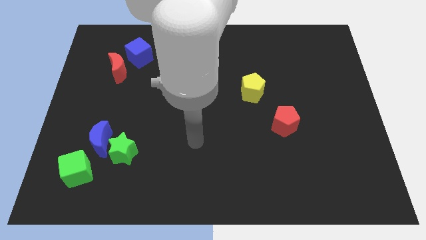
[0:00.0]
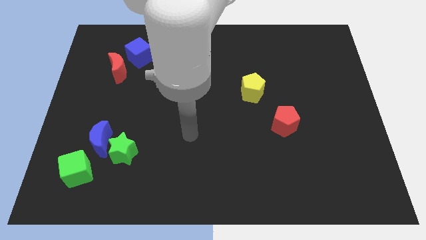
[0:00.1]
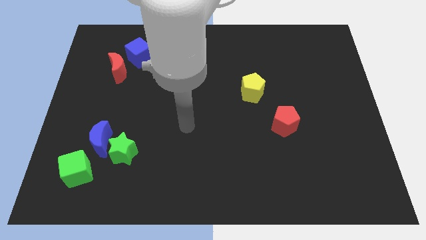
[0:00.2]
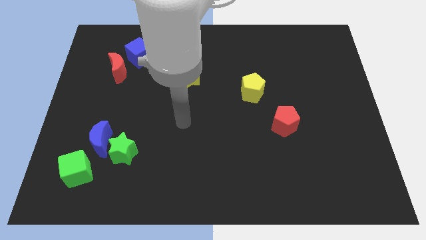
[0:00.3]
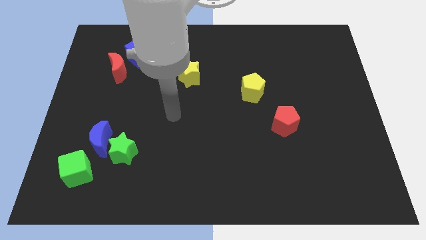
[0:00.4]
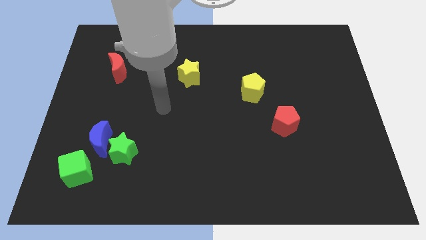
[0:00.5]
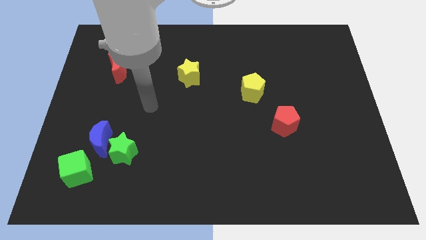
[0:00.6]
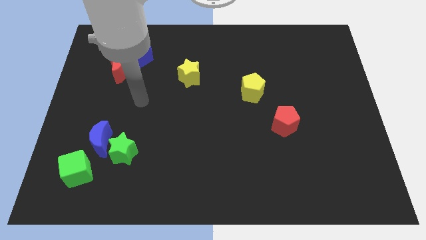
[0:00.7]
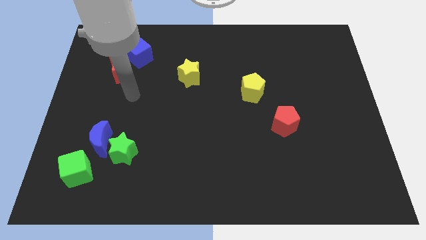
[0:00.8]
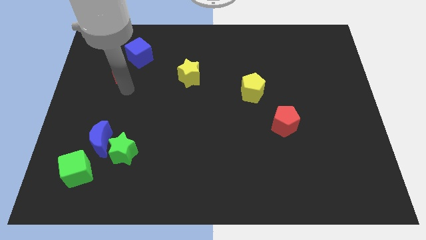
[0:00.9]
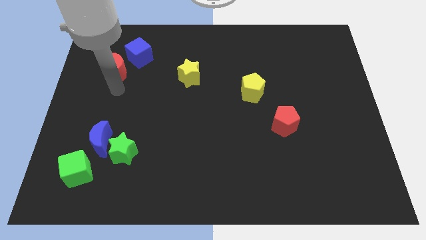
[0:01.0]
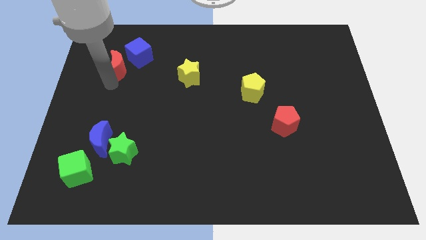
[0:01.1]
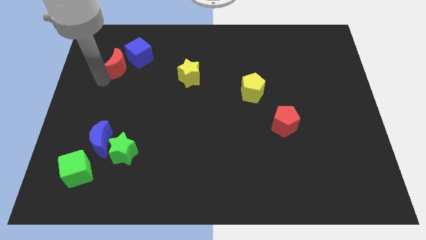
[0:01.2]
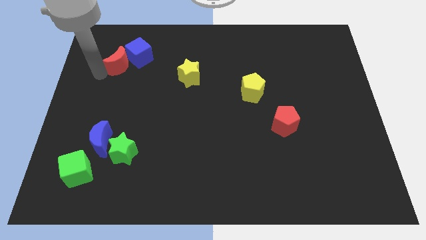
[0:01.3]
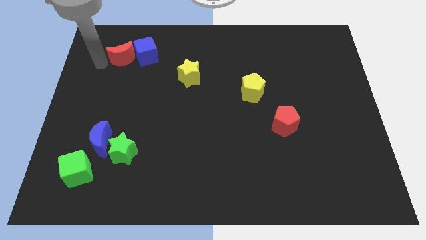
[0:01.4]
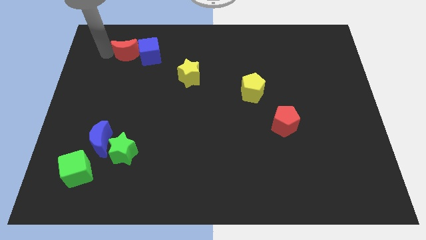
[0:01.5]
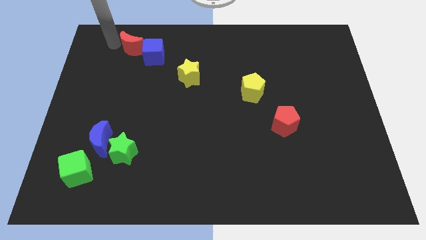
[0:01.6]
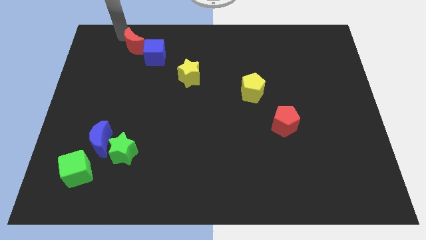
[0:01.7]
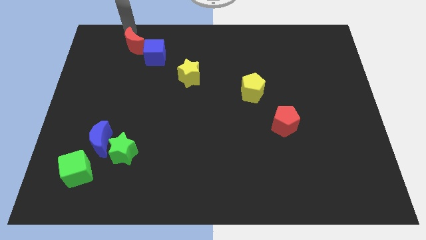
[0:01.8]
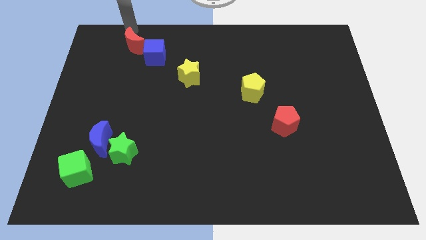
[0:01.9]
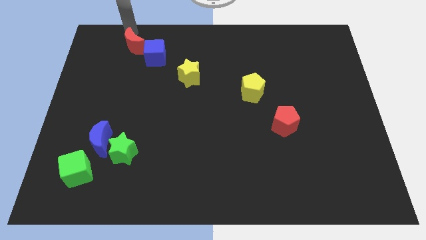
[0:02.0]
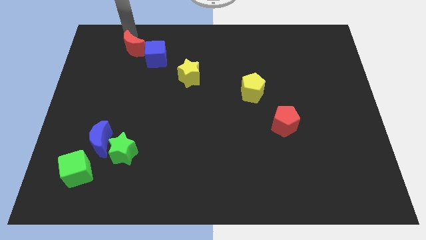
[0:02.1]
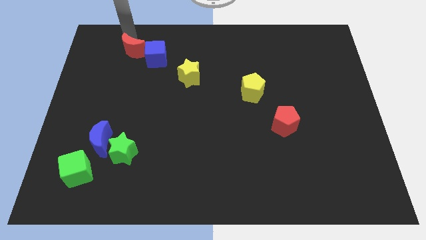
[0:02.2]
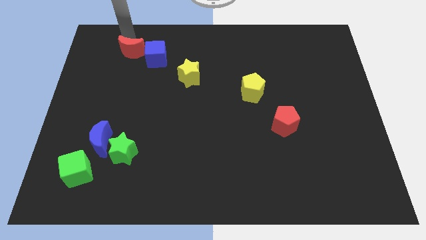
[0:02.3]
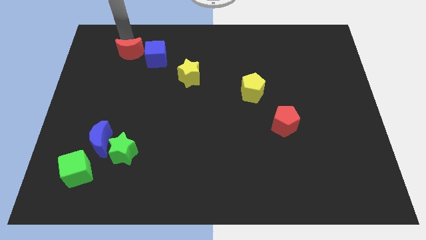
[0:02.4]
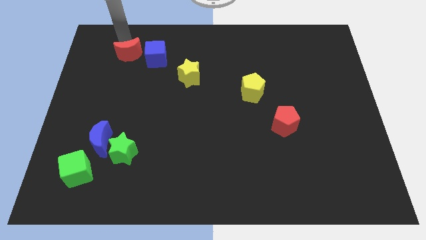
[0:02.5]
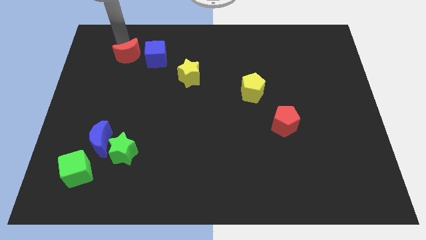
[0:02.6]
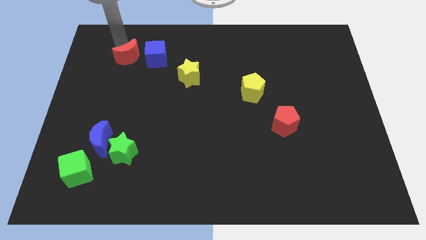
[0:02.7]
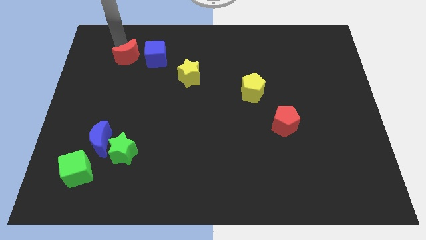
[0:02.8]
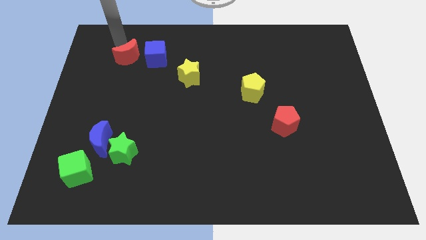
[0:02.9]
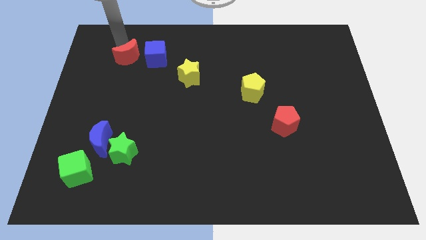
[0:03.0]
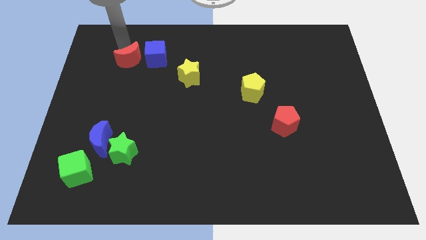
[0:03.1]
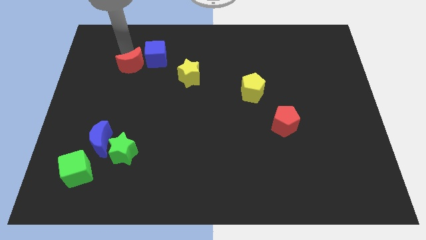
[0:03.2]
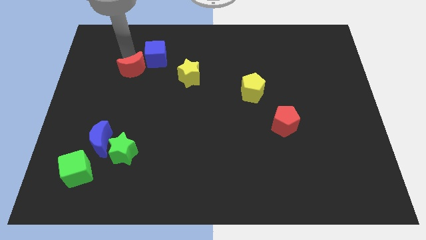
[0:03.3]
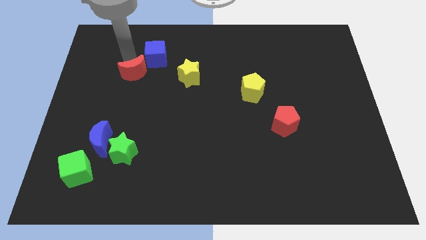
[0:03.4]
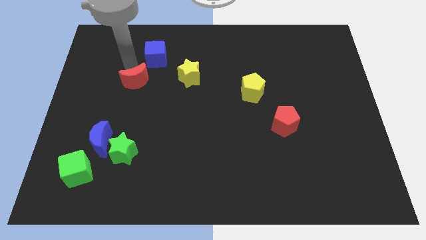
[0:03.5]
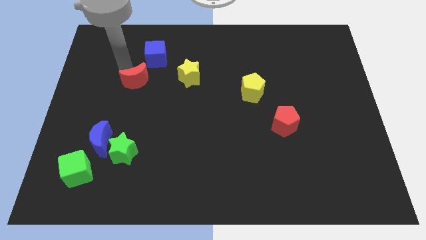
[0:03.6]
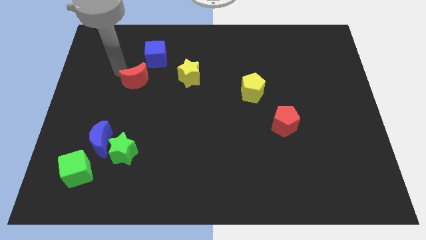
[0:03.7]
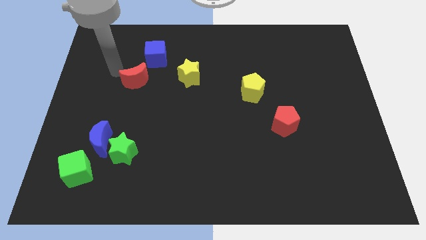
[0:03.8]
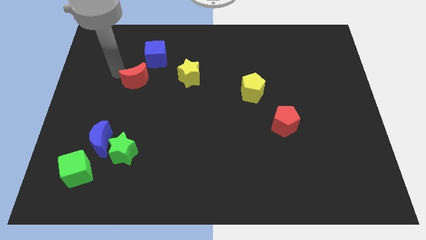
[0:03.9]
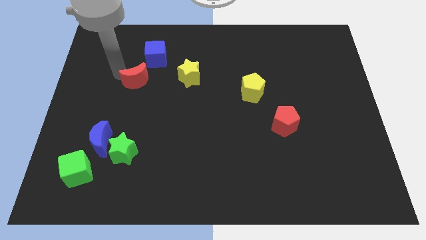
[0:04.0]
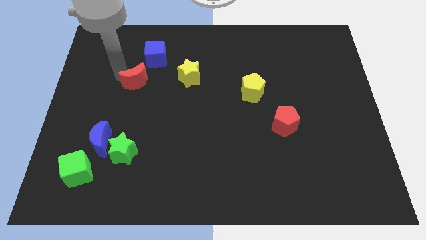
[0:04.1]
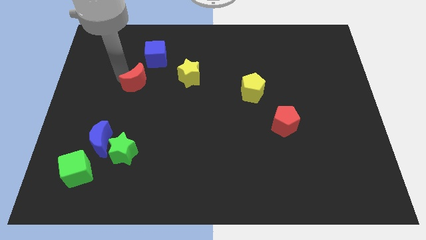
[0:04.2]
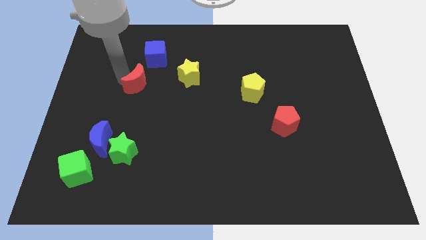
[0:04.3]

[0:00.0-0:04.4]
move the red moon a bit downwards and then to the right

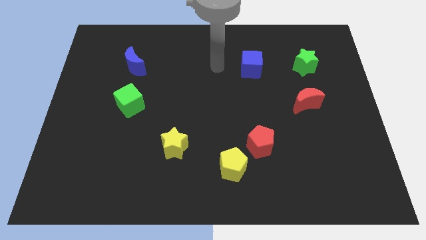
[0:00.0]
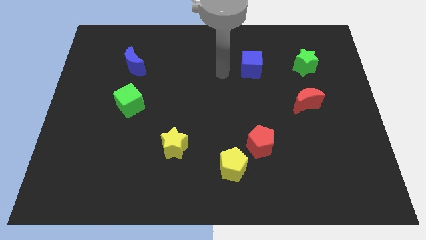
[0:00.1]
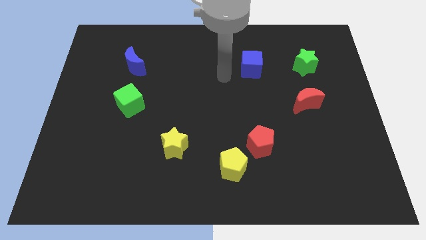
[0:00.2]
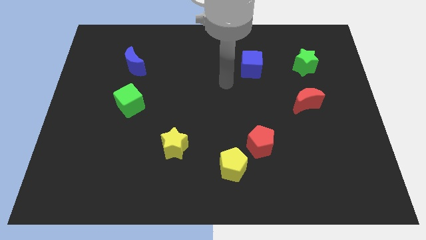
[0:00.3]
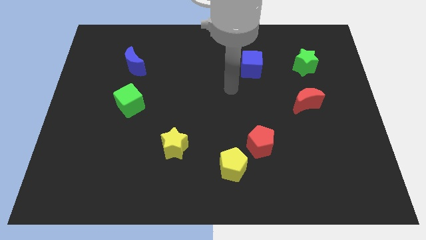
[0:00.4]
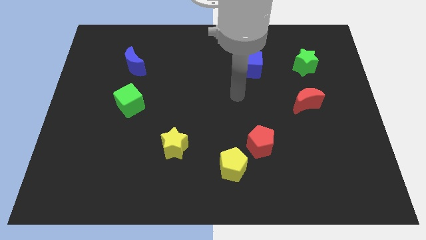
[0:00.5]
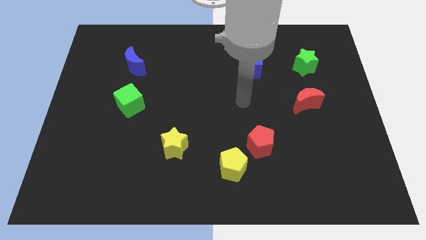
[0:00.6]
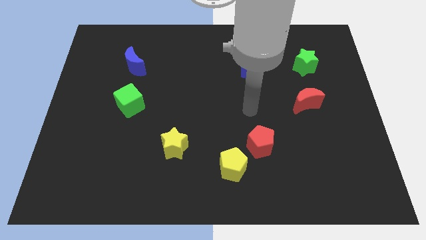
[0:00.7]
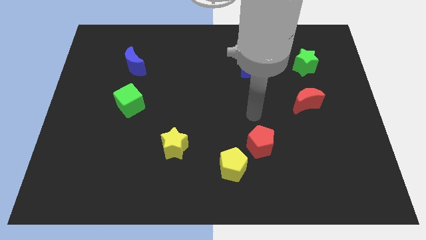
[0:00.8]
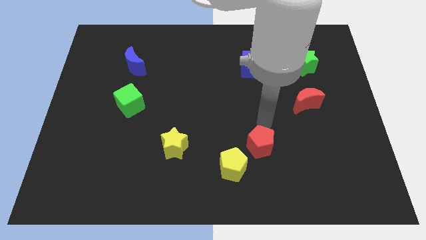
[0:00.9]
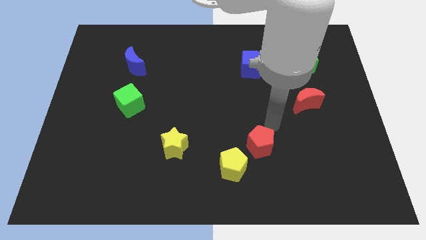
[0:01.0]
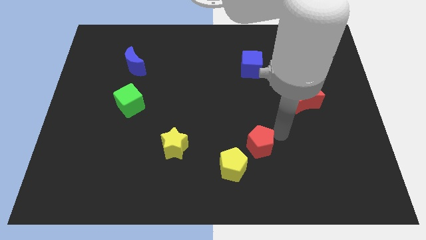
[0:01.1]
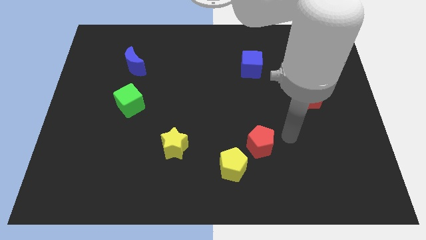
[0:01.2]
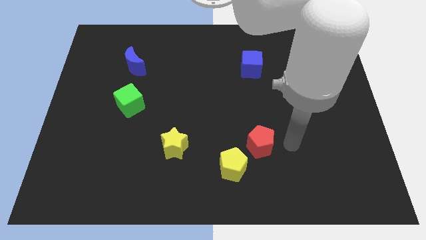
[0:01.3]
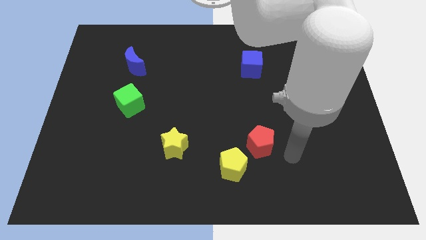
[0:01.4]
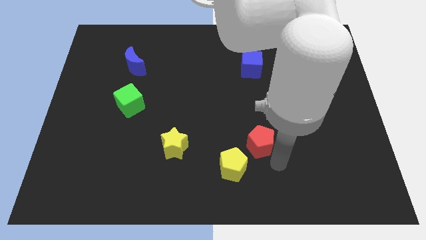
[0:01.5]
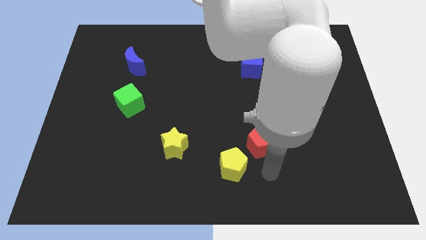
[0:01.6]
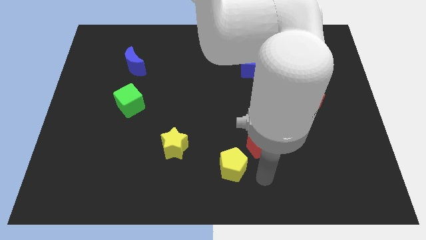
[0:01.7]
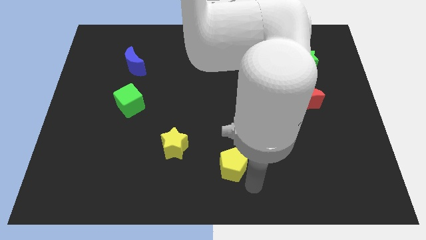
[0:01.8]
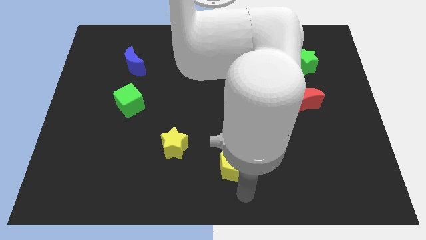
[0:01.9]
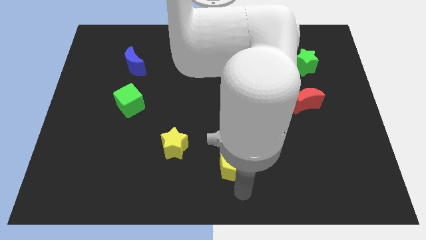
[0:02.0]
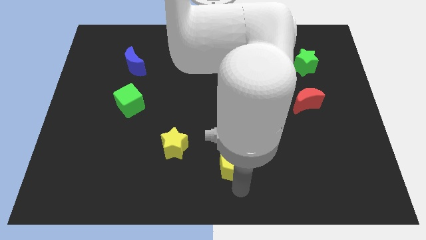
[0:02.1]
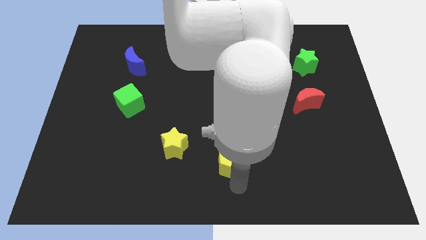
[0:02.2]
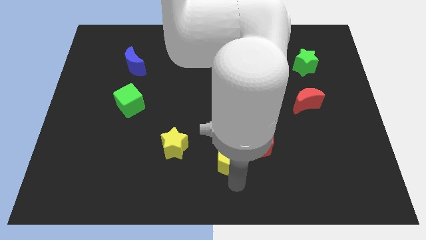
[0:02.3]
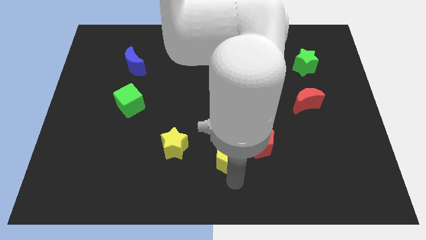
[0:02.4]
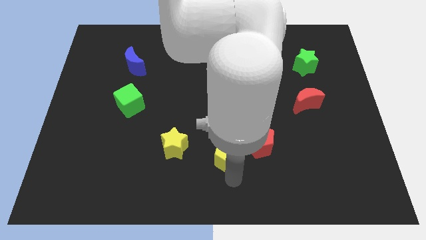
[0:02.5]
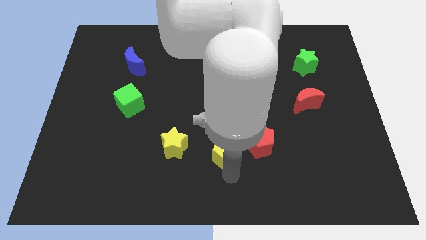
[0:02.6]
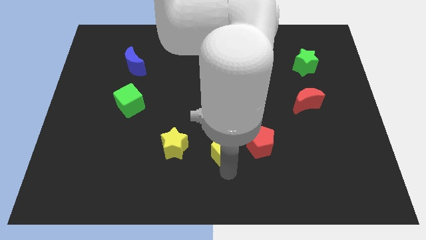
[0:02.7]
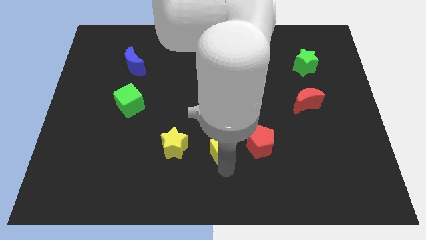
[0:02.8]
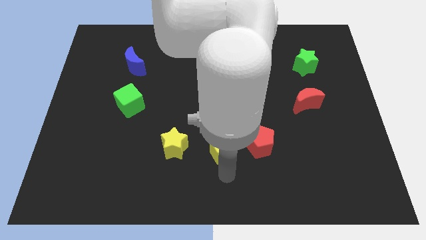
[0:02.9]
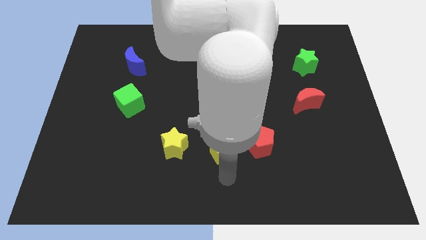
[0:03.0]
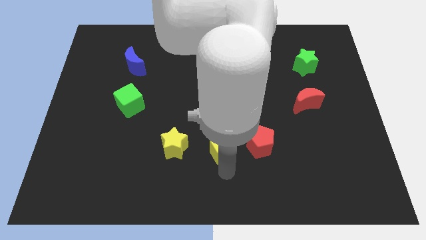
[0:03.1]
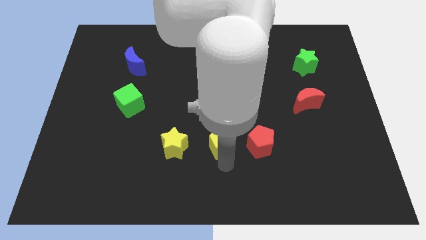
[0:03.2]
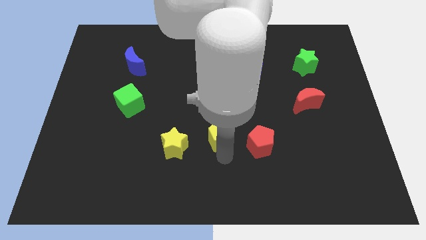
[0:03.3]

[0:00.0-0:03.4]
slide the yellow pentagon slightly up

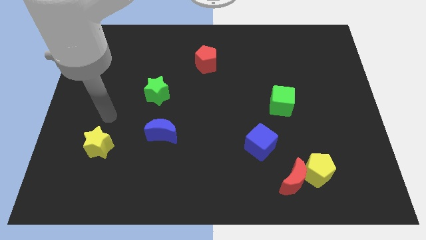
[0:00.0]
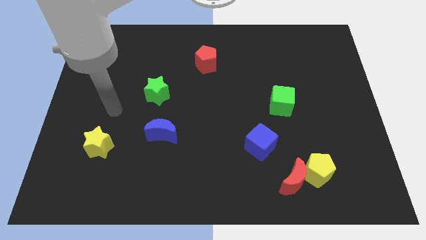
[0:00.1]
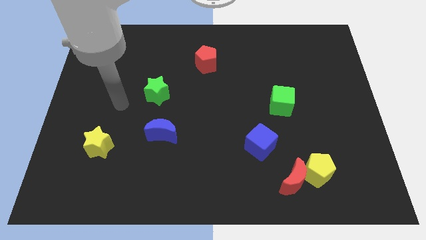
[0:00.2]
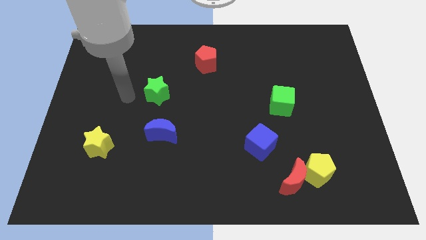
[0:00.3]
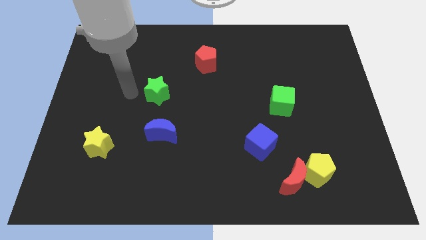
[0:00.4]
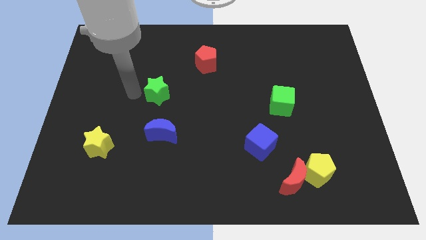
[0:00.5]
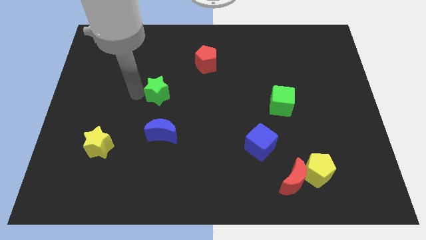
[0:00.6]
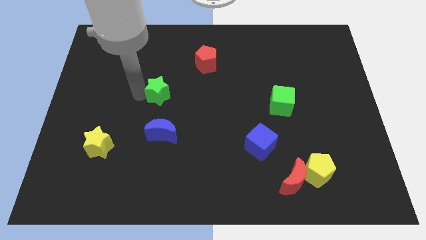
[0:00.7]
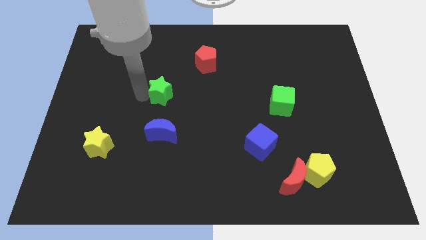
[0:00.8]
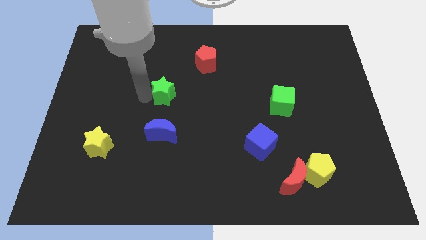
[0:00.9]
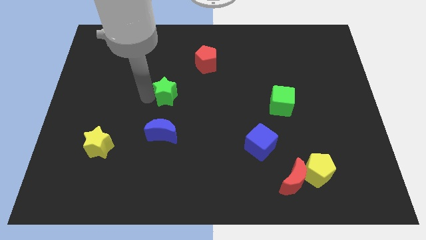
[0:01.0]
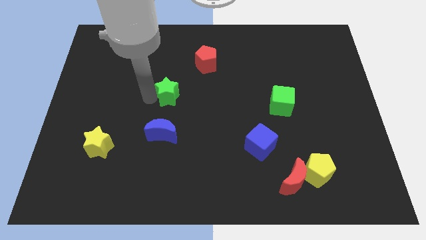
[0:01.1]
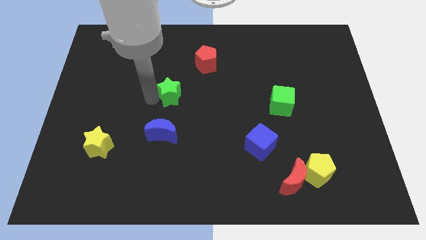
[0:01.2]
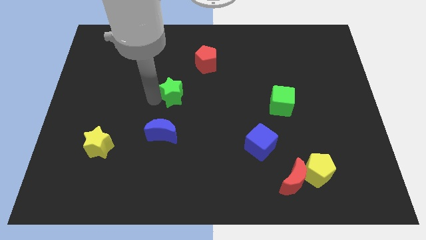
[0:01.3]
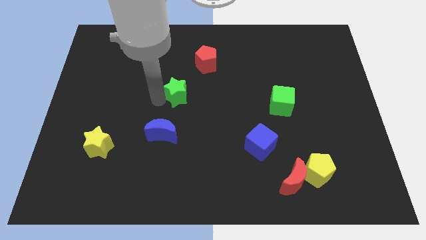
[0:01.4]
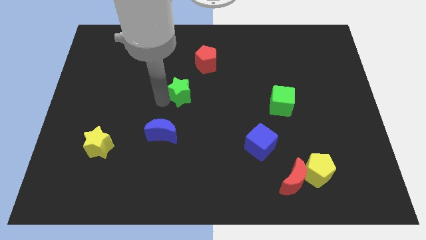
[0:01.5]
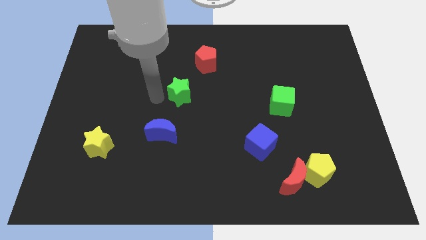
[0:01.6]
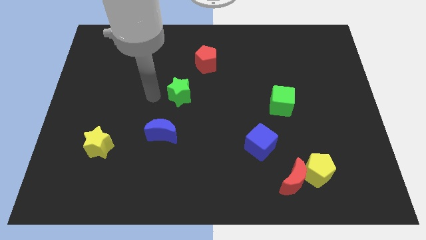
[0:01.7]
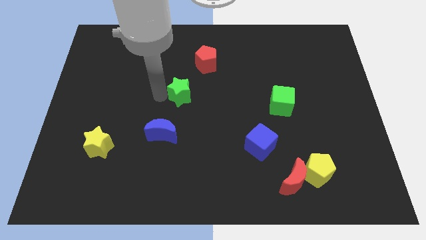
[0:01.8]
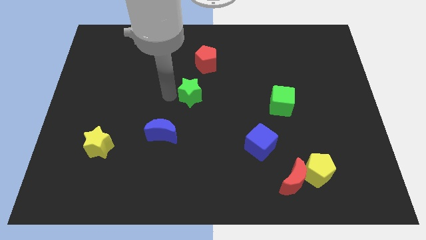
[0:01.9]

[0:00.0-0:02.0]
slightly slide the green star right
